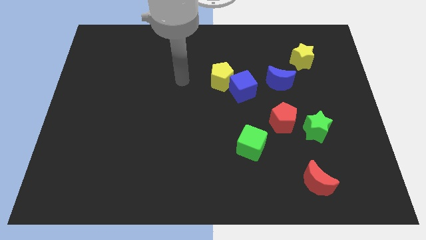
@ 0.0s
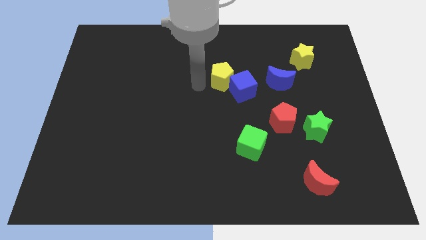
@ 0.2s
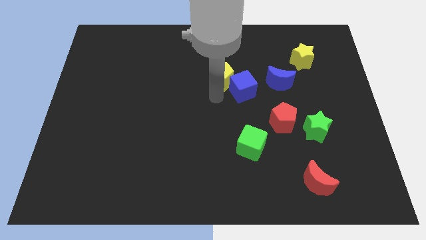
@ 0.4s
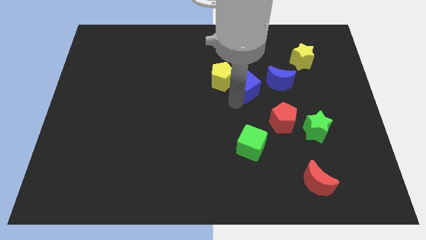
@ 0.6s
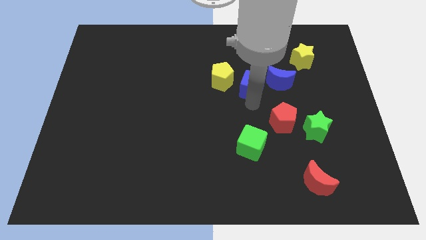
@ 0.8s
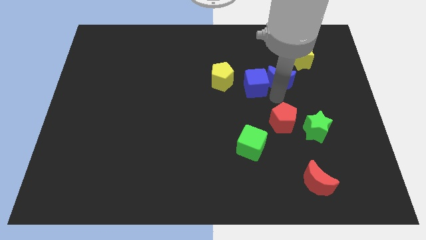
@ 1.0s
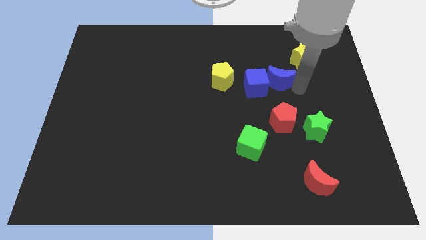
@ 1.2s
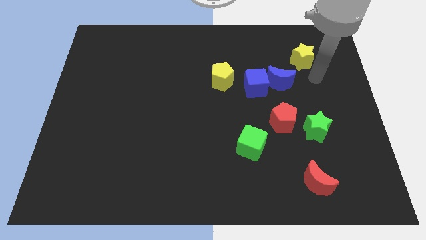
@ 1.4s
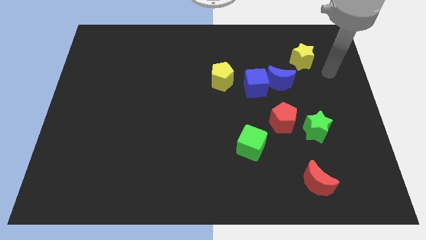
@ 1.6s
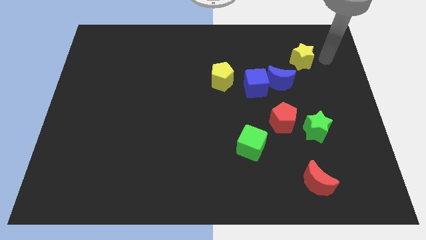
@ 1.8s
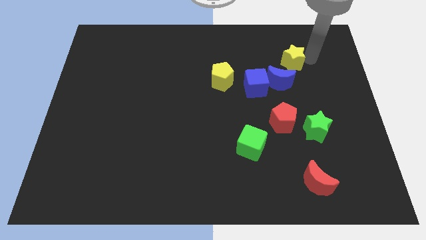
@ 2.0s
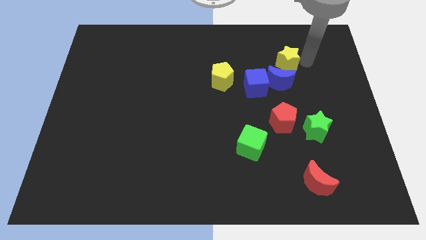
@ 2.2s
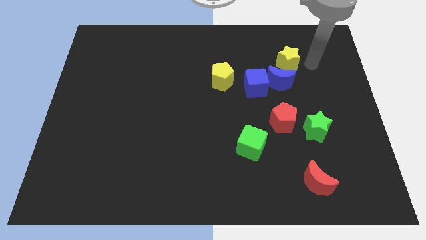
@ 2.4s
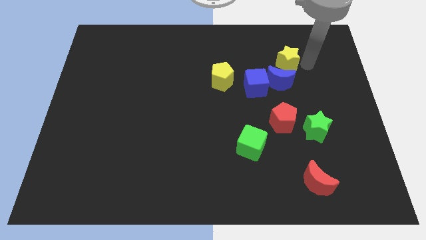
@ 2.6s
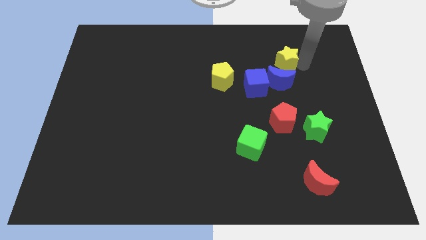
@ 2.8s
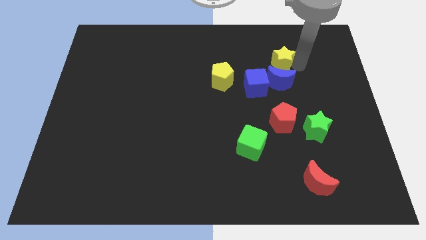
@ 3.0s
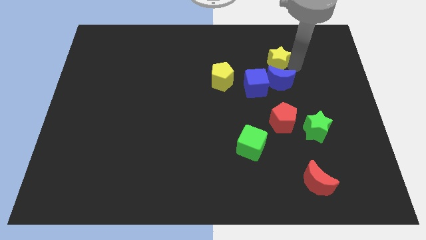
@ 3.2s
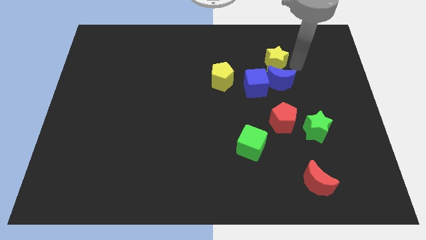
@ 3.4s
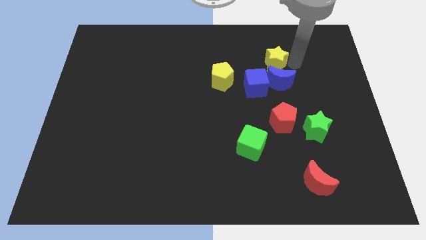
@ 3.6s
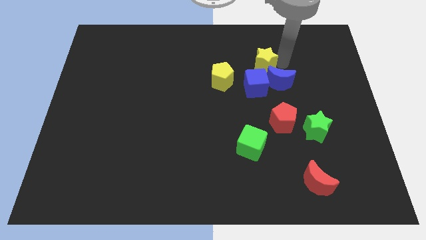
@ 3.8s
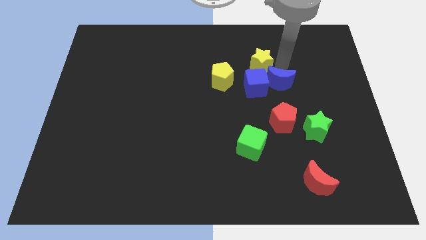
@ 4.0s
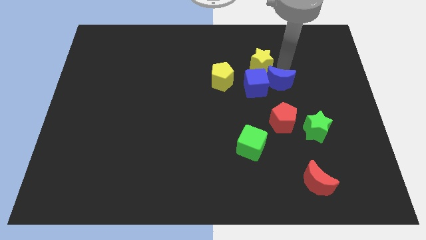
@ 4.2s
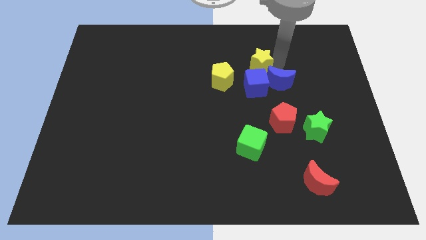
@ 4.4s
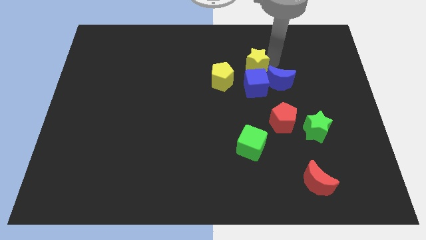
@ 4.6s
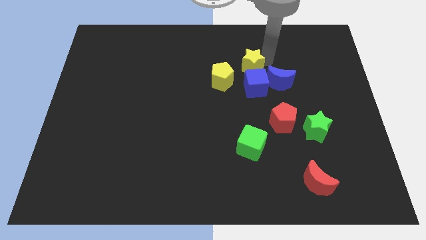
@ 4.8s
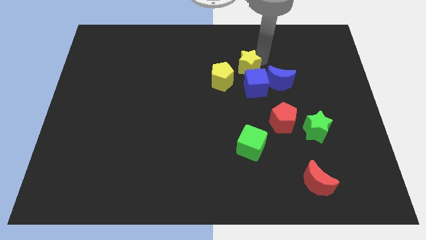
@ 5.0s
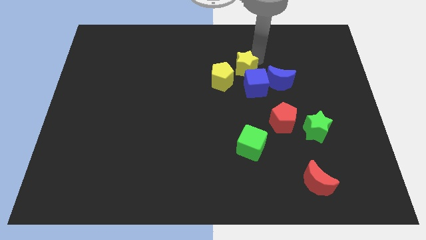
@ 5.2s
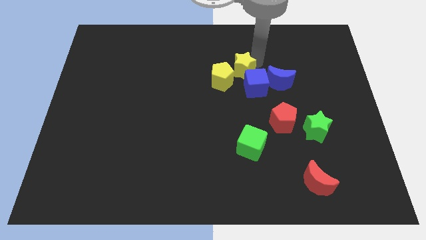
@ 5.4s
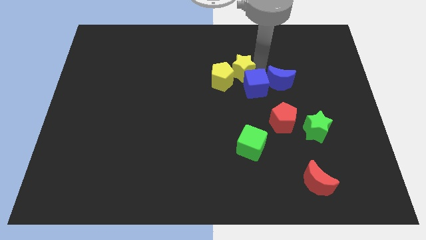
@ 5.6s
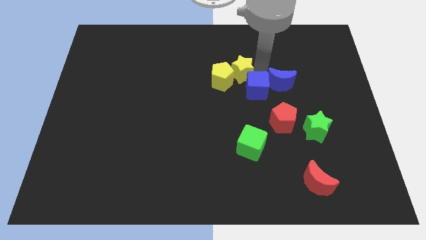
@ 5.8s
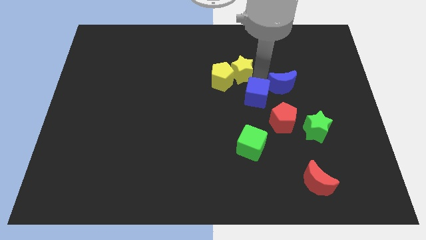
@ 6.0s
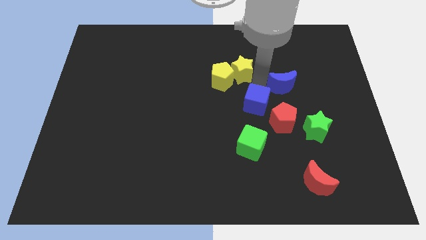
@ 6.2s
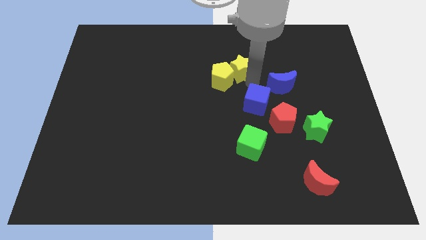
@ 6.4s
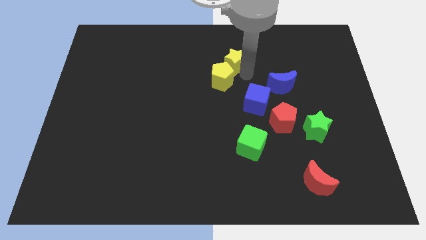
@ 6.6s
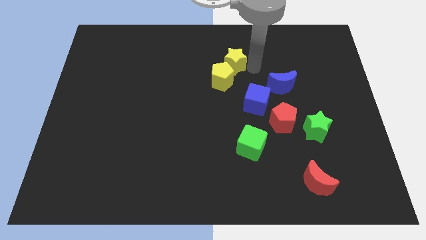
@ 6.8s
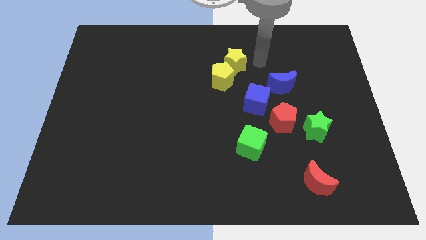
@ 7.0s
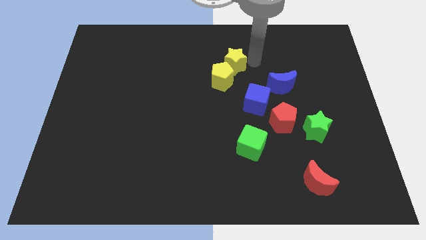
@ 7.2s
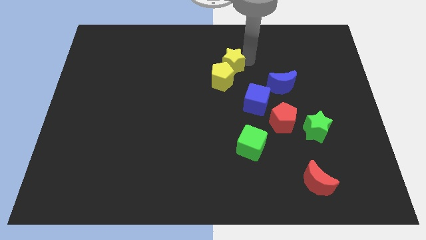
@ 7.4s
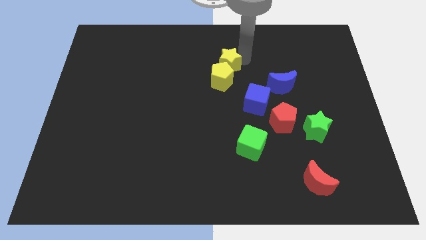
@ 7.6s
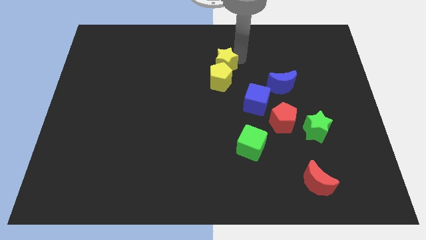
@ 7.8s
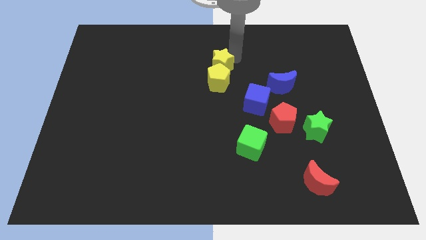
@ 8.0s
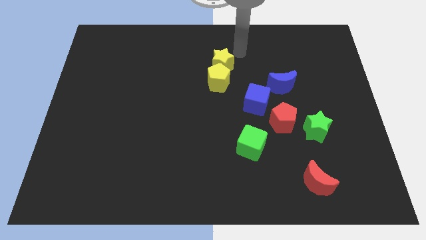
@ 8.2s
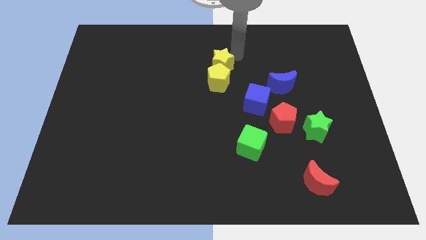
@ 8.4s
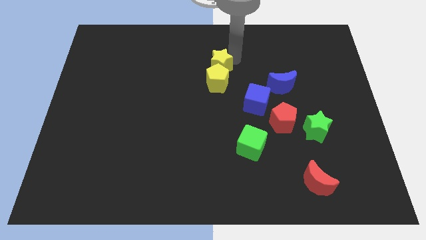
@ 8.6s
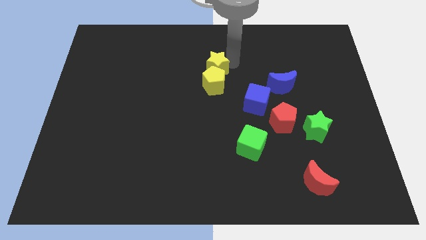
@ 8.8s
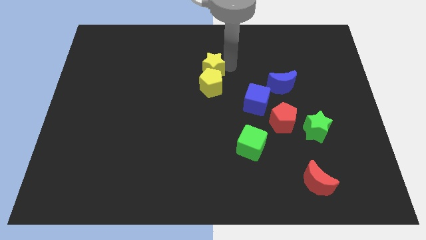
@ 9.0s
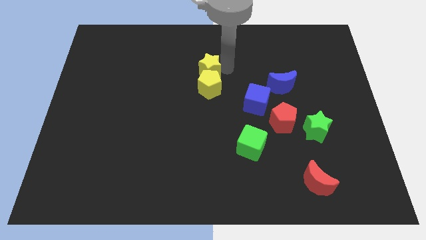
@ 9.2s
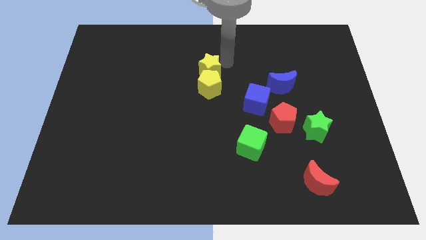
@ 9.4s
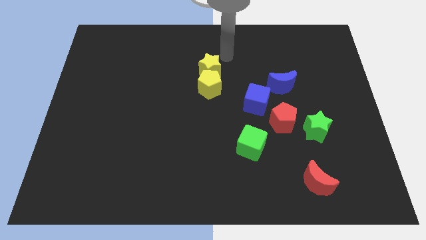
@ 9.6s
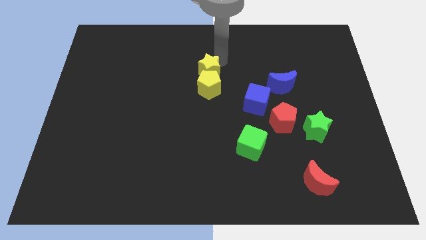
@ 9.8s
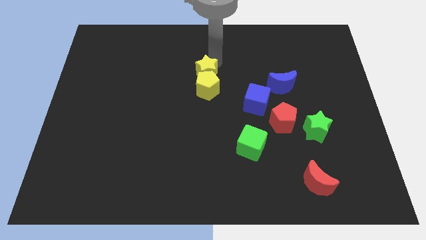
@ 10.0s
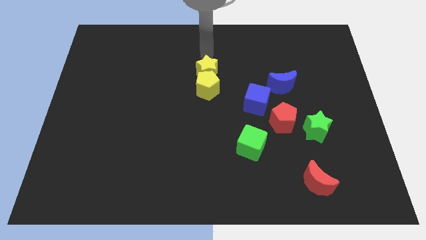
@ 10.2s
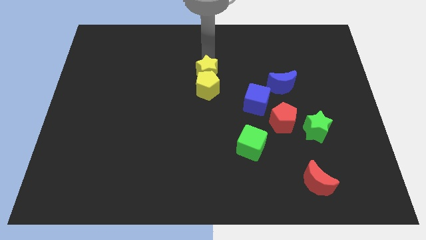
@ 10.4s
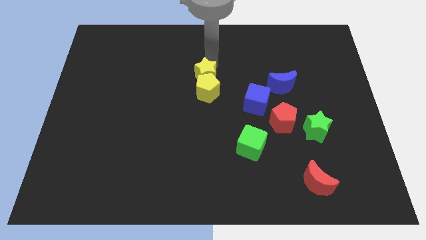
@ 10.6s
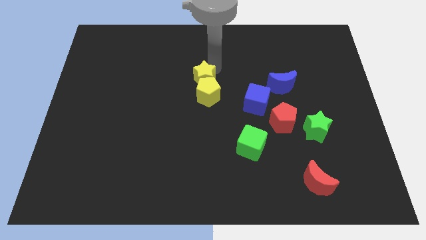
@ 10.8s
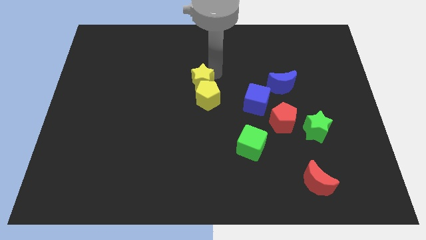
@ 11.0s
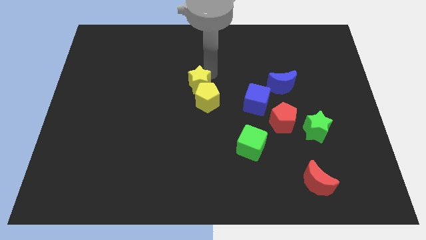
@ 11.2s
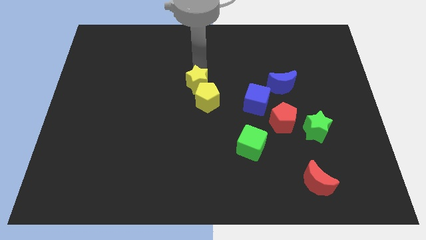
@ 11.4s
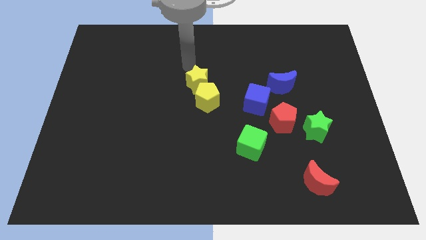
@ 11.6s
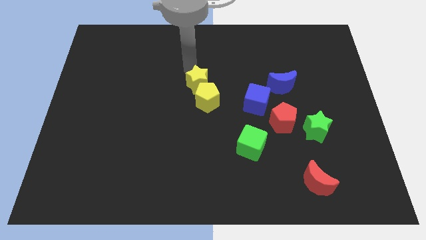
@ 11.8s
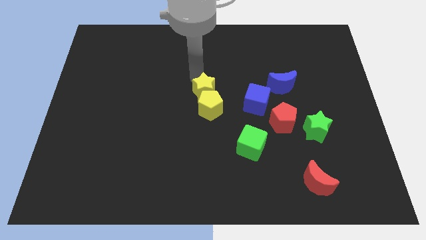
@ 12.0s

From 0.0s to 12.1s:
move the yellow star to the left of the blue cube

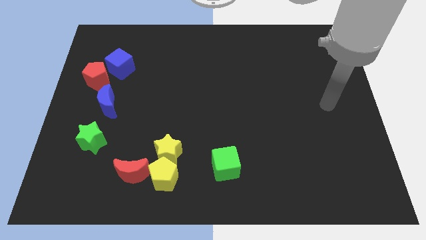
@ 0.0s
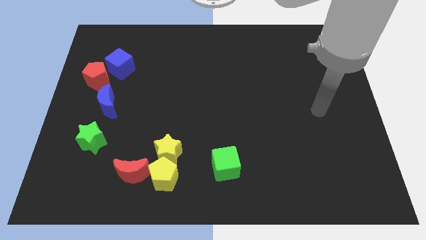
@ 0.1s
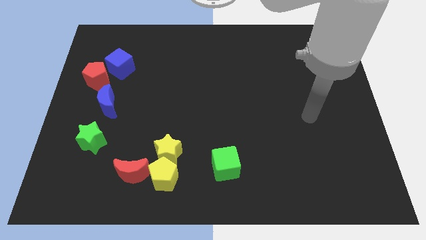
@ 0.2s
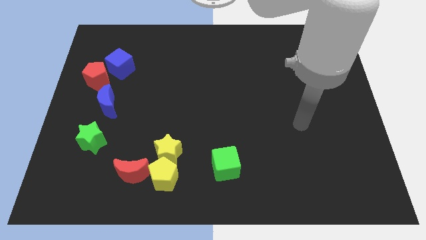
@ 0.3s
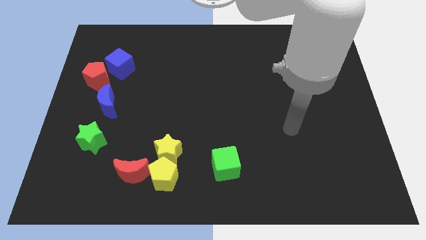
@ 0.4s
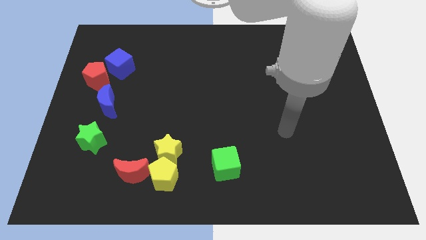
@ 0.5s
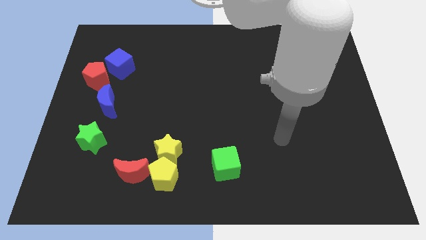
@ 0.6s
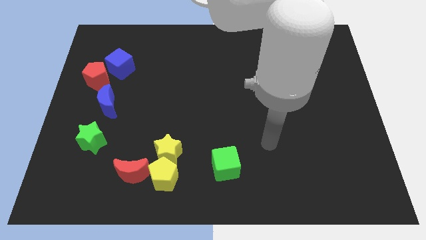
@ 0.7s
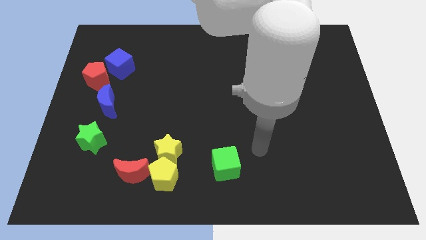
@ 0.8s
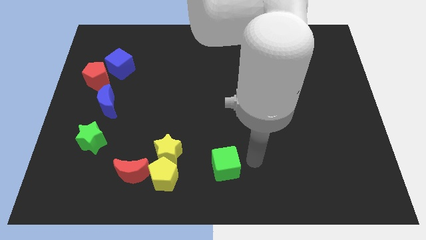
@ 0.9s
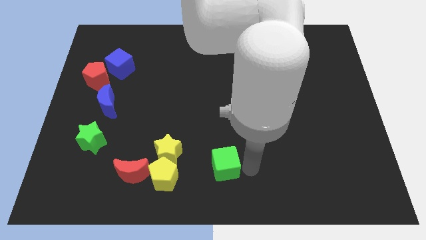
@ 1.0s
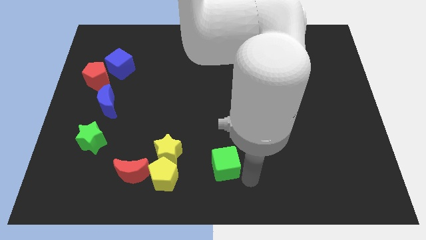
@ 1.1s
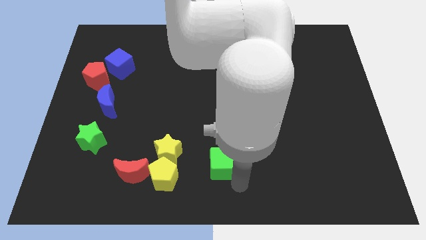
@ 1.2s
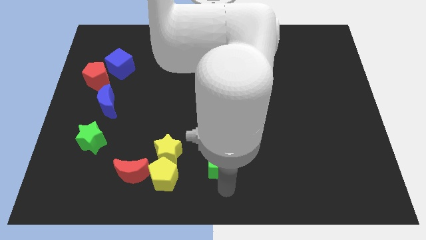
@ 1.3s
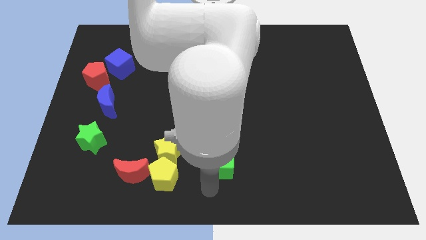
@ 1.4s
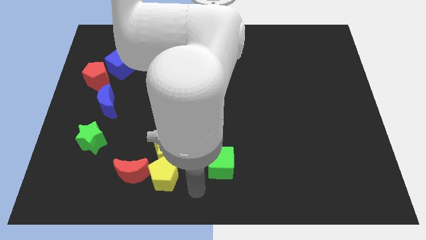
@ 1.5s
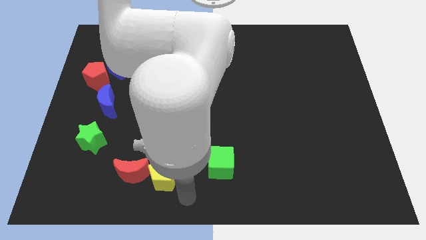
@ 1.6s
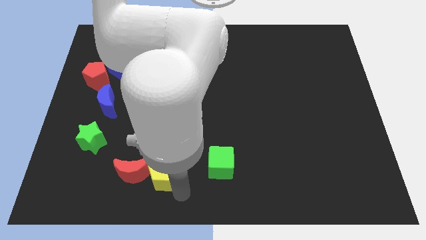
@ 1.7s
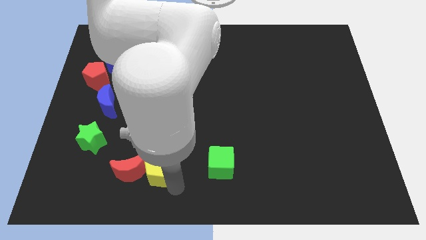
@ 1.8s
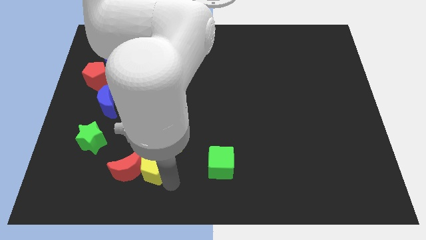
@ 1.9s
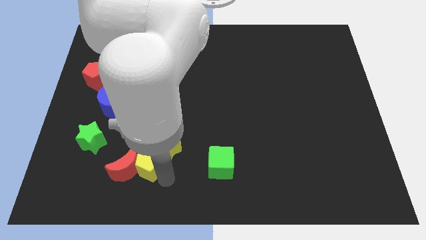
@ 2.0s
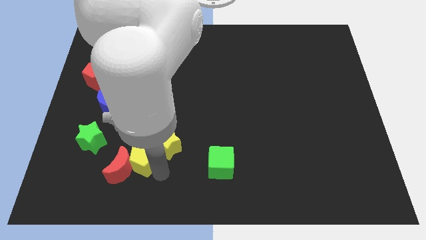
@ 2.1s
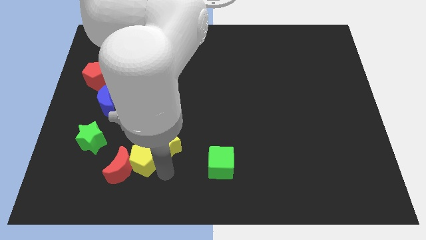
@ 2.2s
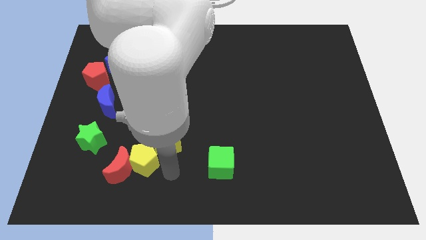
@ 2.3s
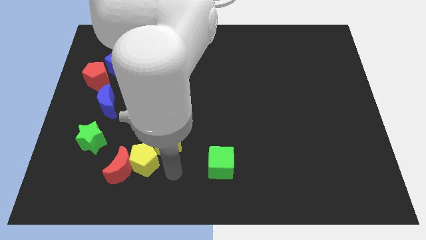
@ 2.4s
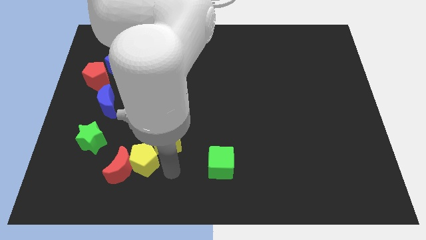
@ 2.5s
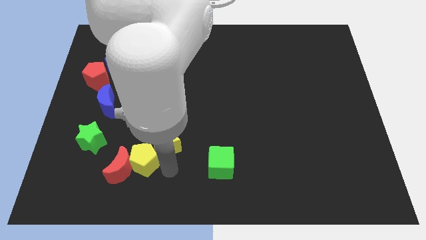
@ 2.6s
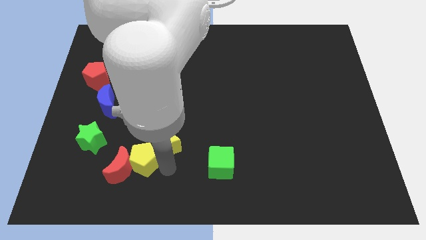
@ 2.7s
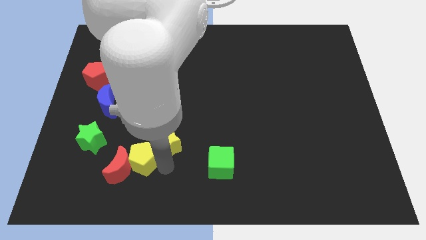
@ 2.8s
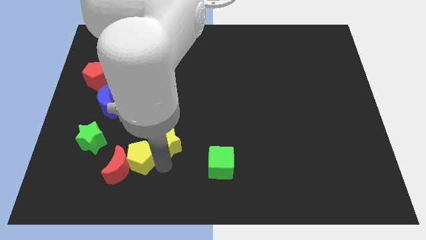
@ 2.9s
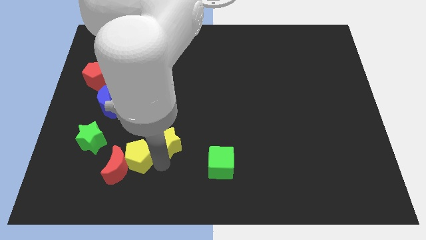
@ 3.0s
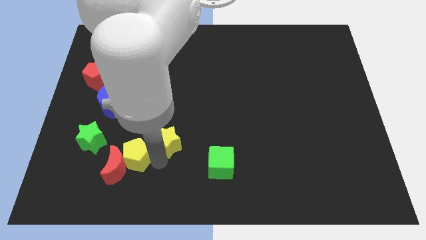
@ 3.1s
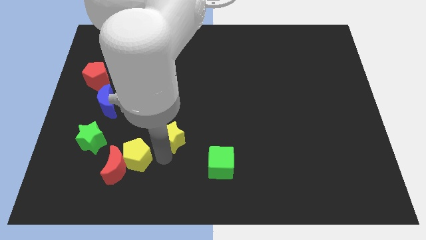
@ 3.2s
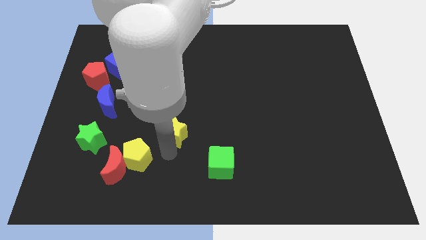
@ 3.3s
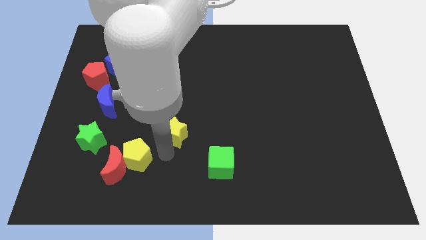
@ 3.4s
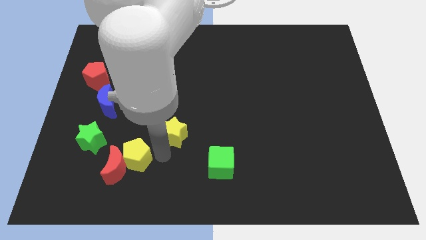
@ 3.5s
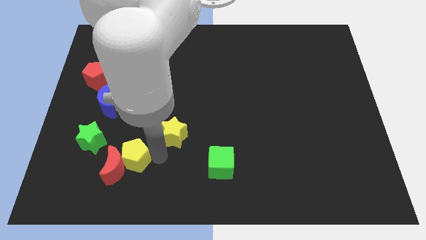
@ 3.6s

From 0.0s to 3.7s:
put the yellow pentagon diagonally down and to the right of the green star
